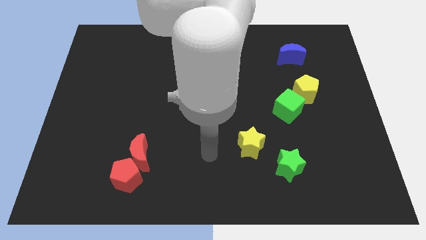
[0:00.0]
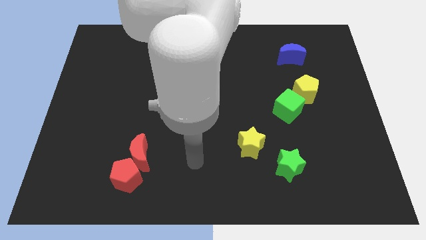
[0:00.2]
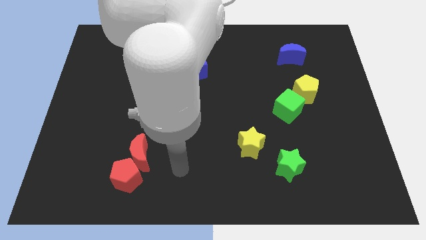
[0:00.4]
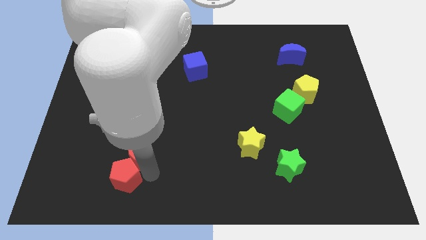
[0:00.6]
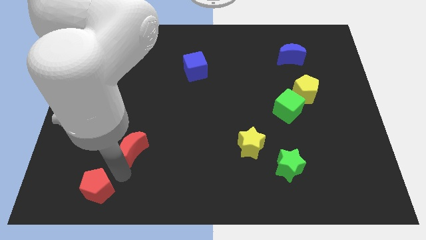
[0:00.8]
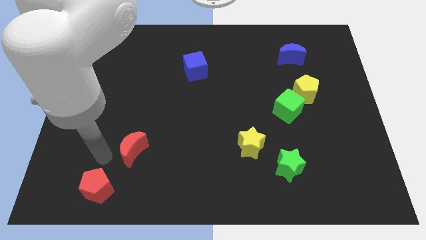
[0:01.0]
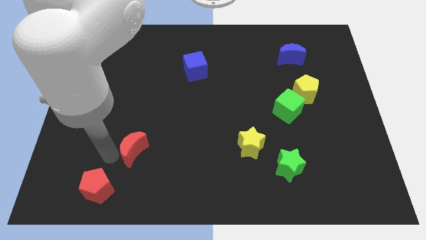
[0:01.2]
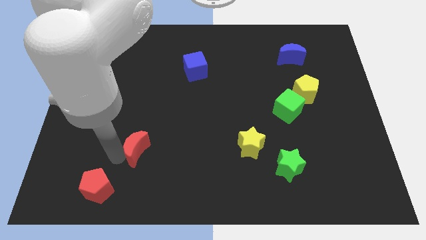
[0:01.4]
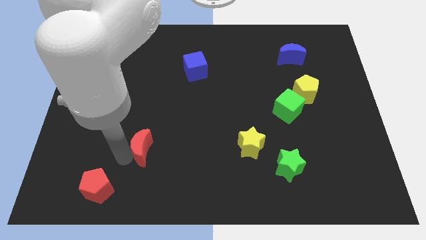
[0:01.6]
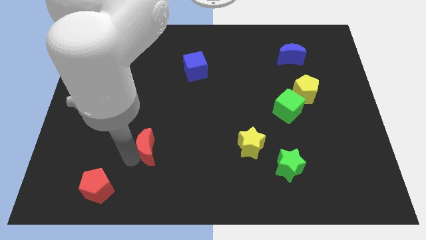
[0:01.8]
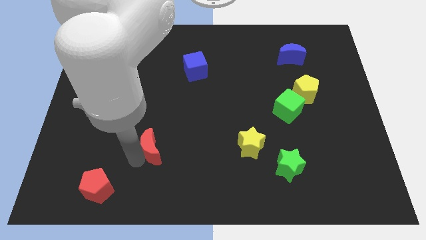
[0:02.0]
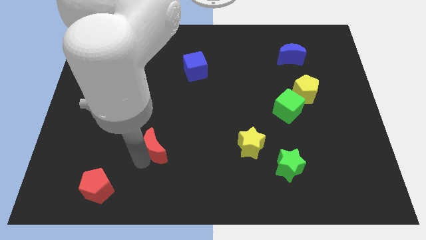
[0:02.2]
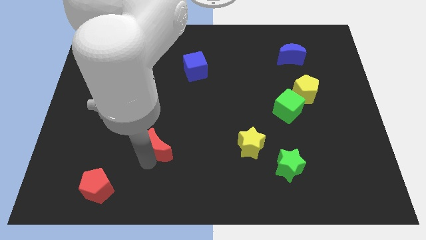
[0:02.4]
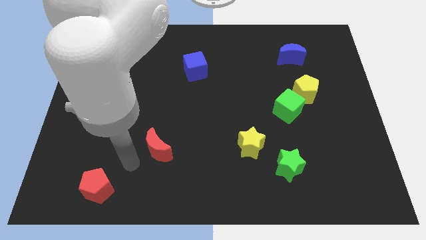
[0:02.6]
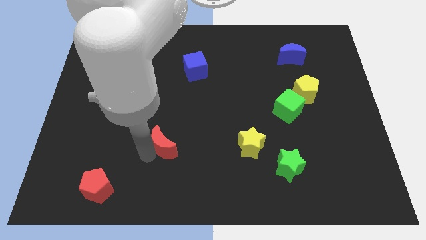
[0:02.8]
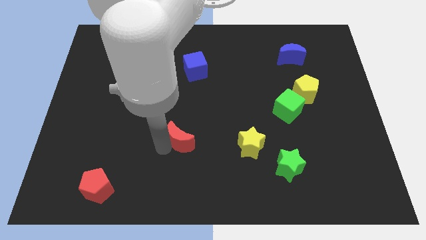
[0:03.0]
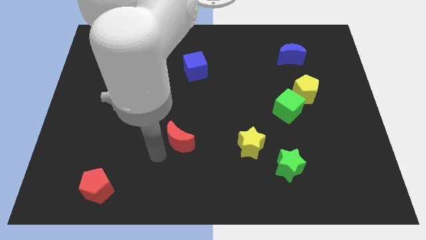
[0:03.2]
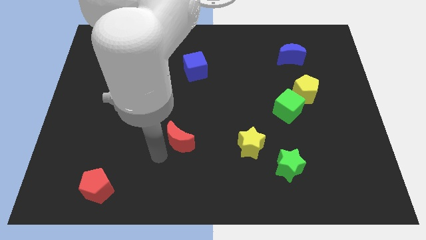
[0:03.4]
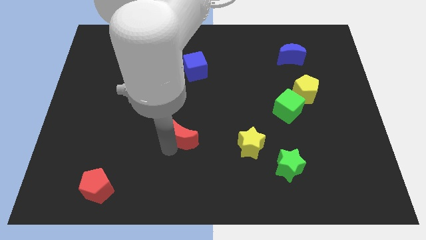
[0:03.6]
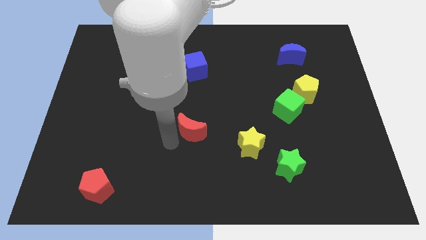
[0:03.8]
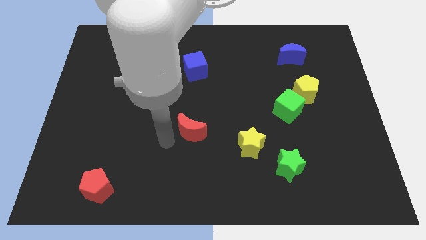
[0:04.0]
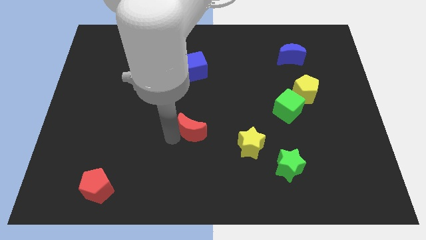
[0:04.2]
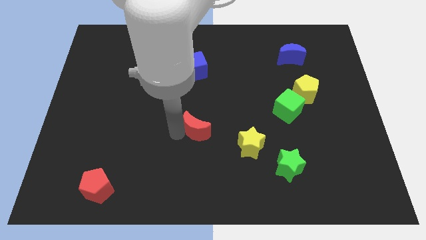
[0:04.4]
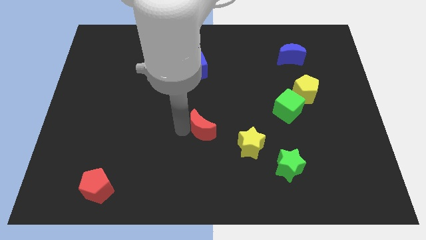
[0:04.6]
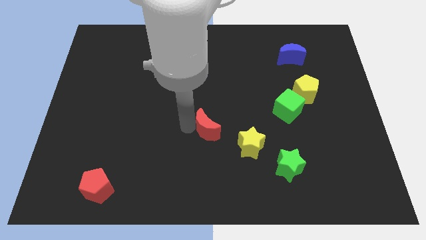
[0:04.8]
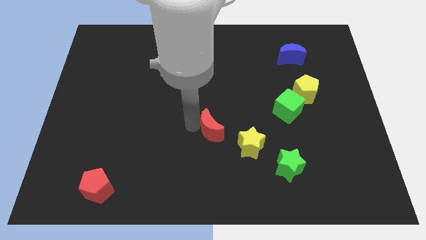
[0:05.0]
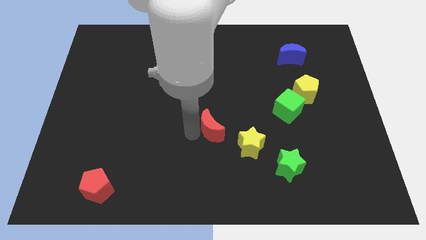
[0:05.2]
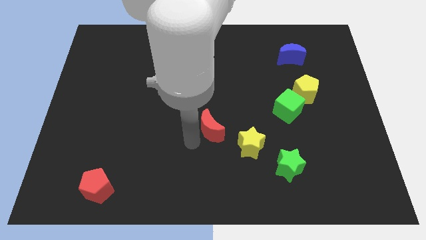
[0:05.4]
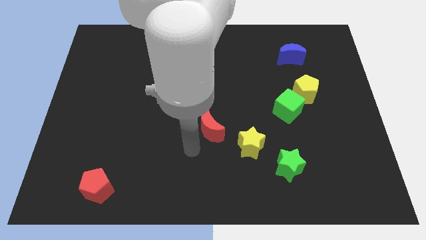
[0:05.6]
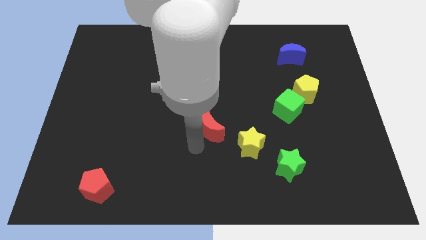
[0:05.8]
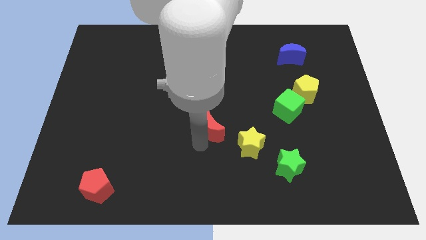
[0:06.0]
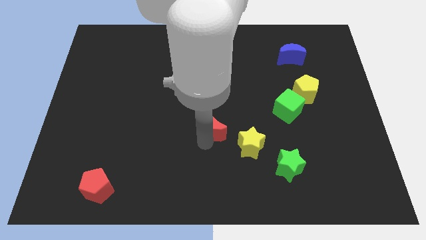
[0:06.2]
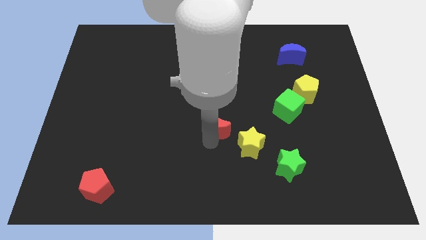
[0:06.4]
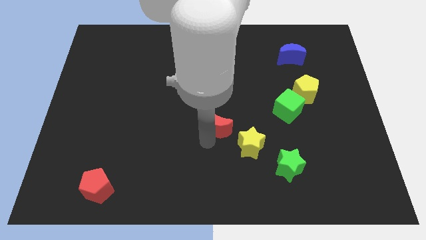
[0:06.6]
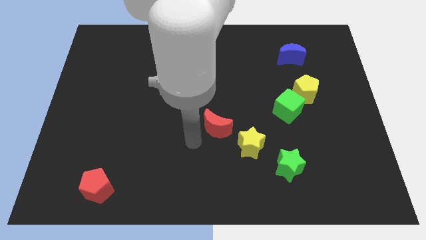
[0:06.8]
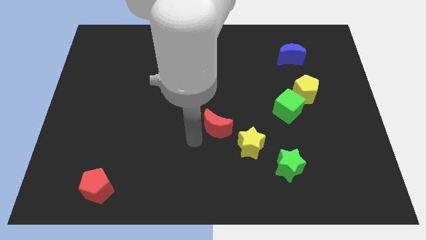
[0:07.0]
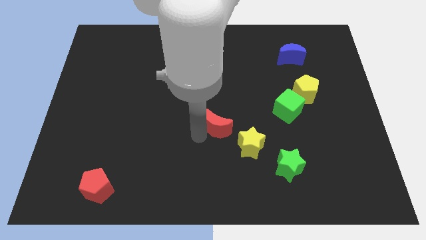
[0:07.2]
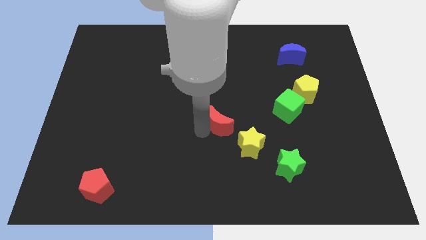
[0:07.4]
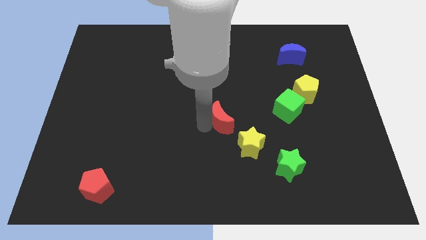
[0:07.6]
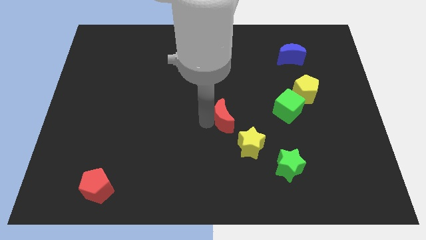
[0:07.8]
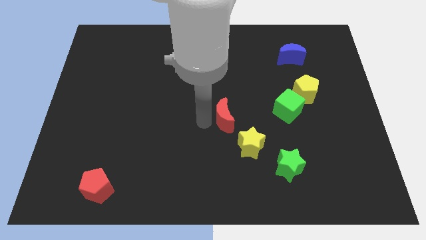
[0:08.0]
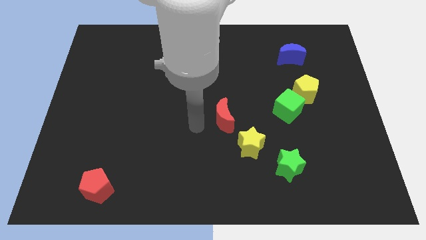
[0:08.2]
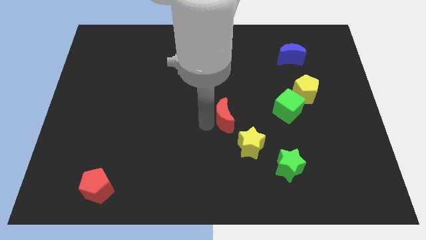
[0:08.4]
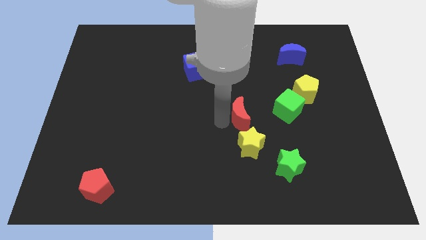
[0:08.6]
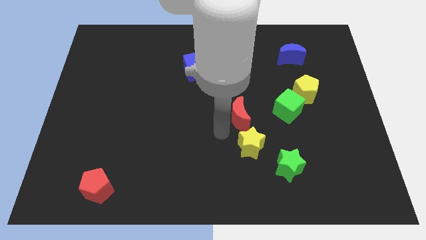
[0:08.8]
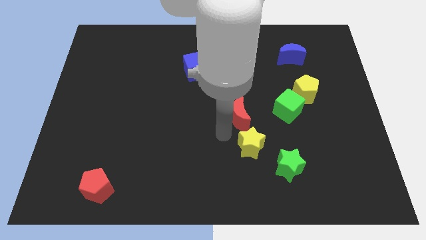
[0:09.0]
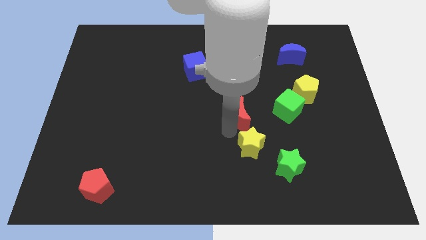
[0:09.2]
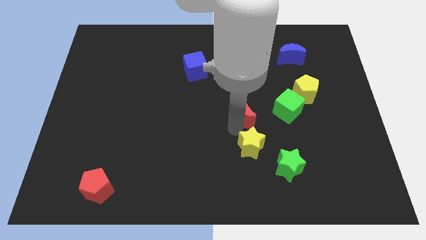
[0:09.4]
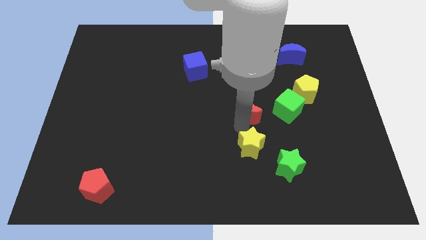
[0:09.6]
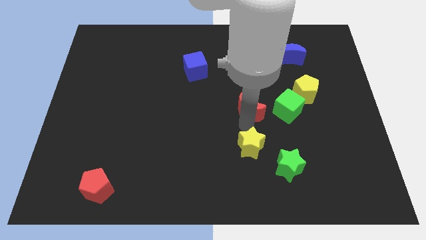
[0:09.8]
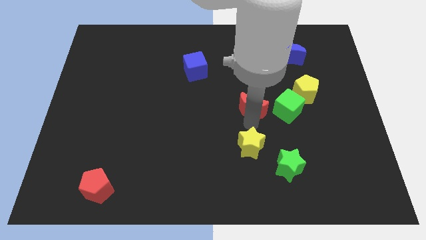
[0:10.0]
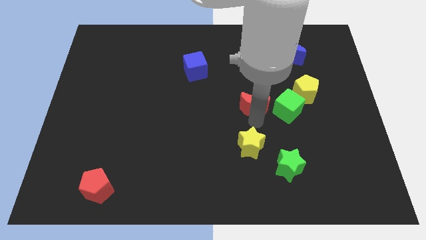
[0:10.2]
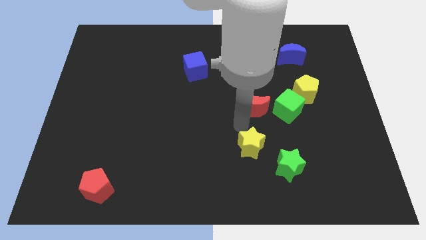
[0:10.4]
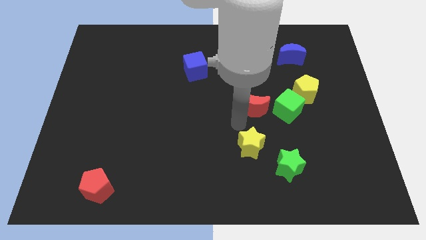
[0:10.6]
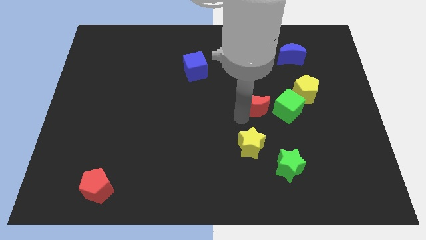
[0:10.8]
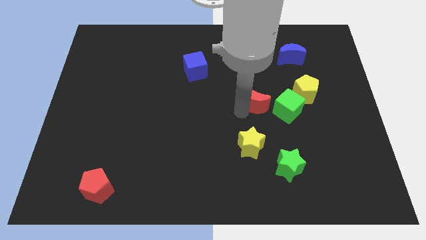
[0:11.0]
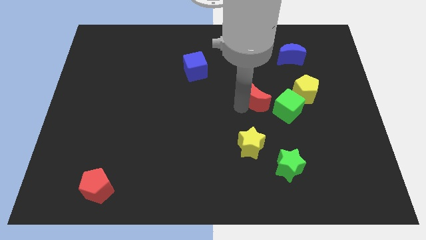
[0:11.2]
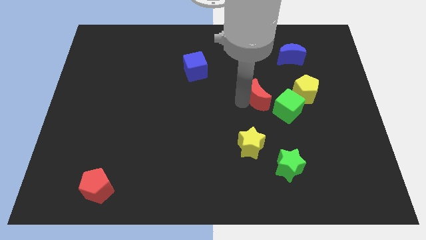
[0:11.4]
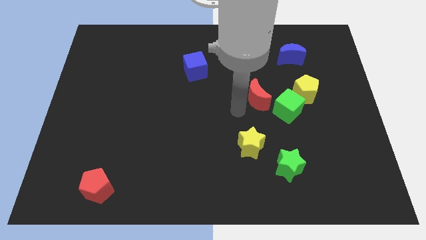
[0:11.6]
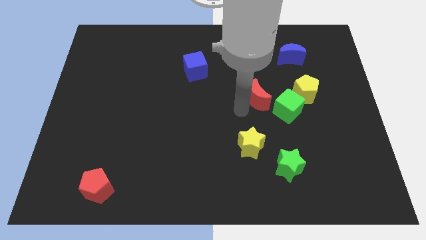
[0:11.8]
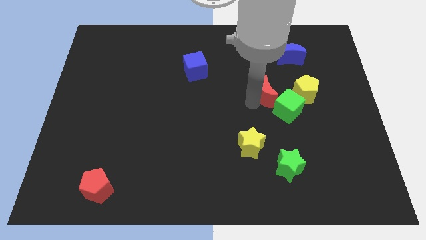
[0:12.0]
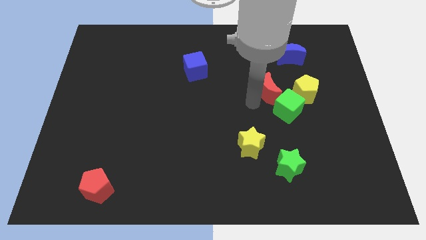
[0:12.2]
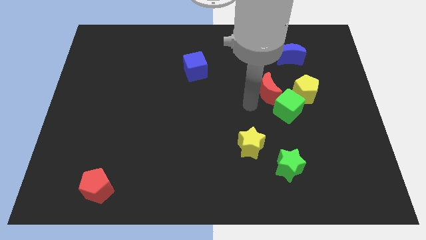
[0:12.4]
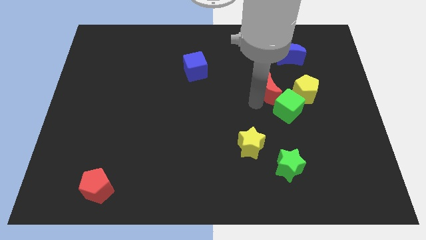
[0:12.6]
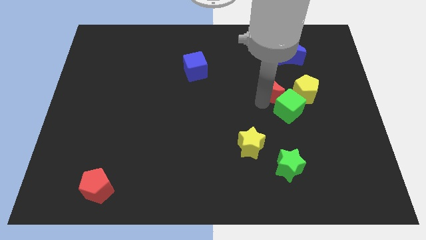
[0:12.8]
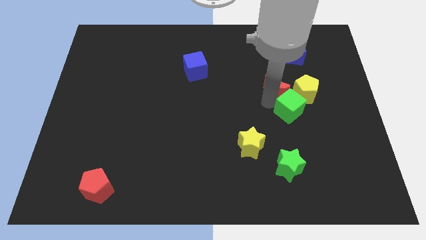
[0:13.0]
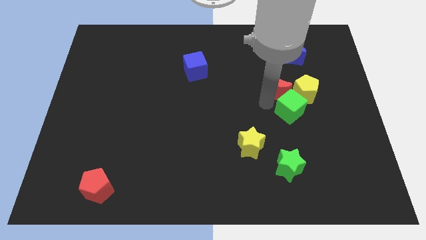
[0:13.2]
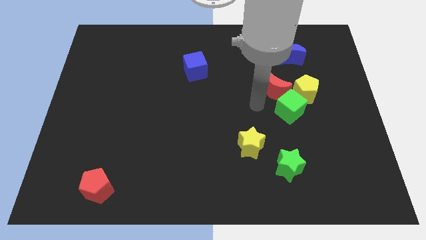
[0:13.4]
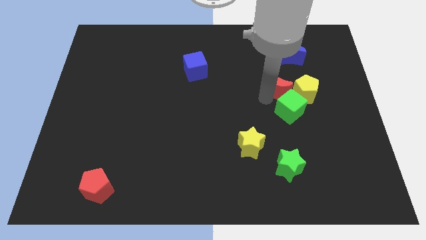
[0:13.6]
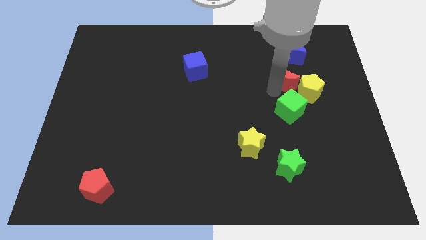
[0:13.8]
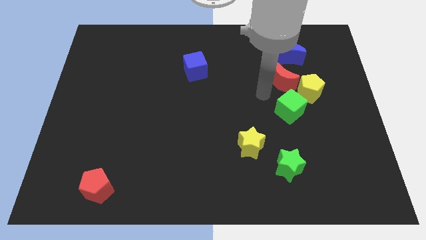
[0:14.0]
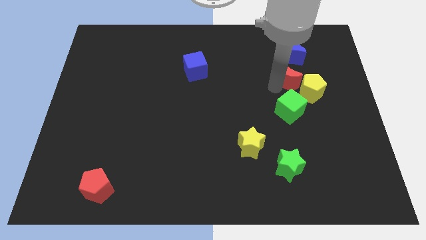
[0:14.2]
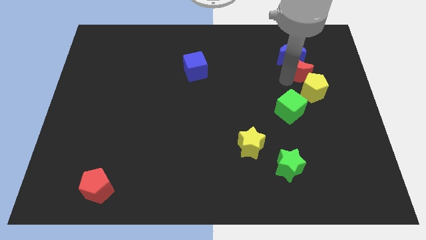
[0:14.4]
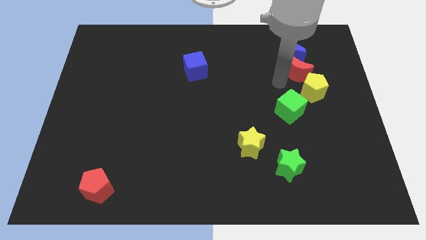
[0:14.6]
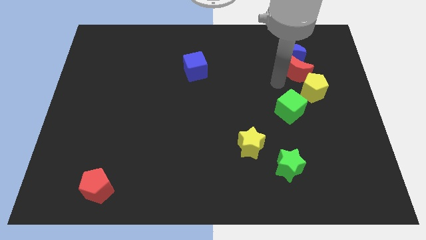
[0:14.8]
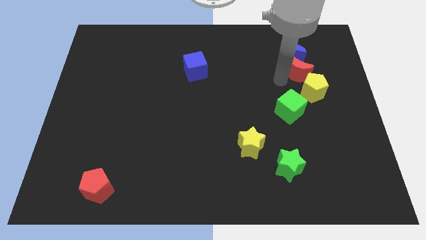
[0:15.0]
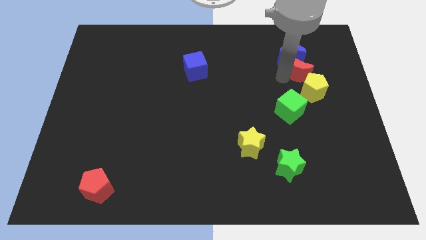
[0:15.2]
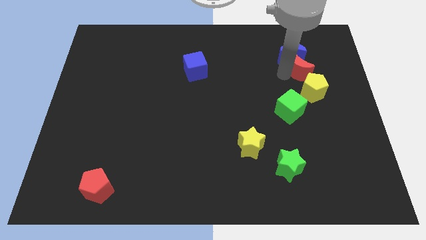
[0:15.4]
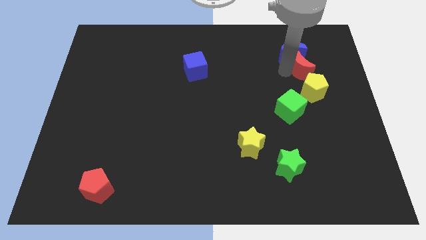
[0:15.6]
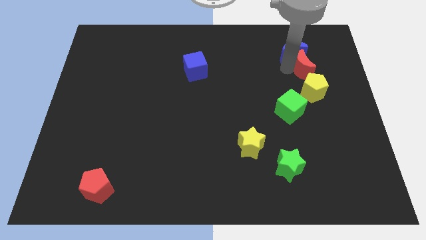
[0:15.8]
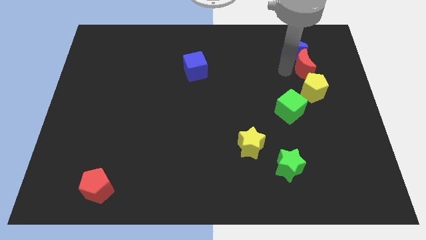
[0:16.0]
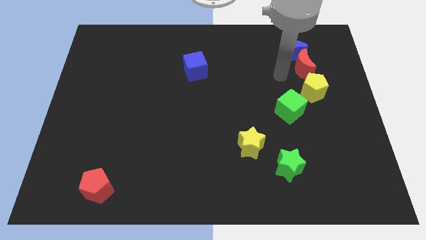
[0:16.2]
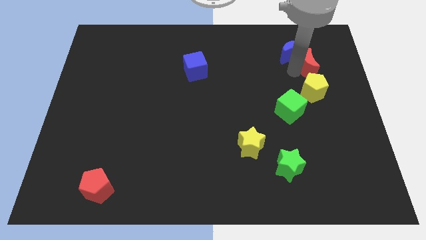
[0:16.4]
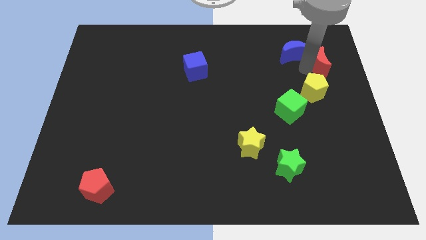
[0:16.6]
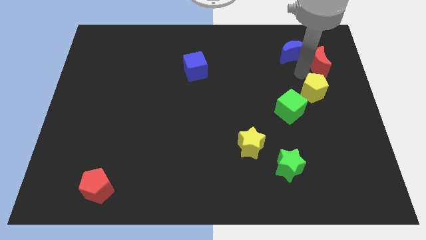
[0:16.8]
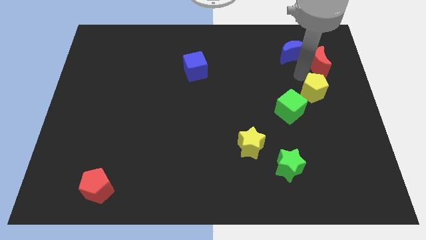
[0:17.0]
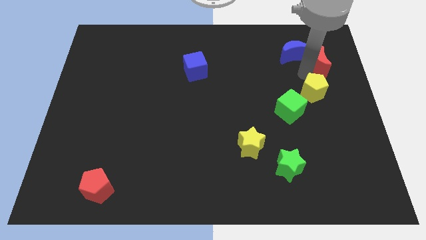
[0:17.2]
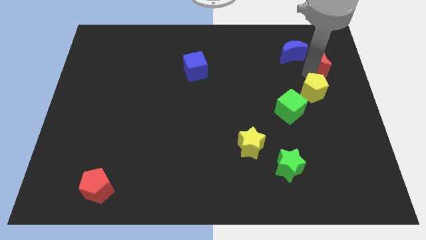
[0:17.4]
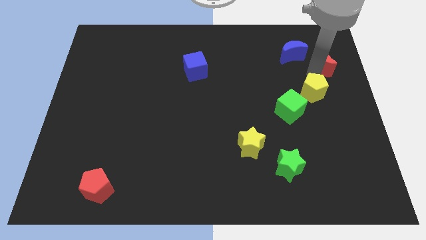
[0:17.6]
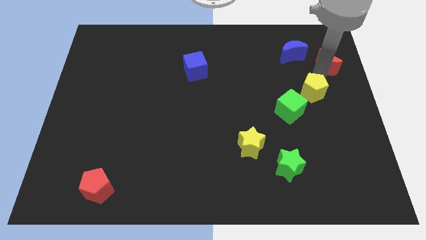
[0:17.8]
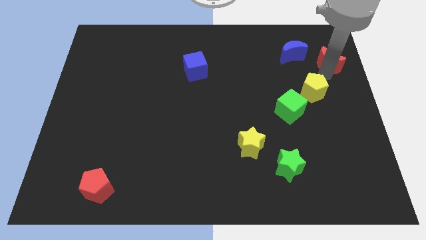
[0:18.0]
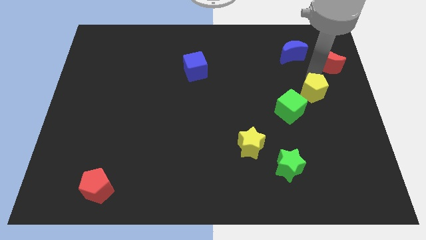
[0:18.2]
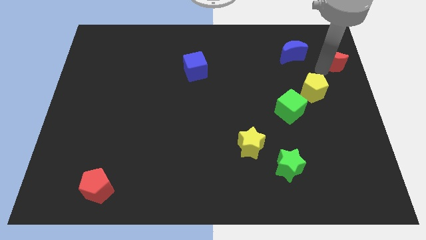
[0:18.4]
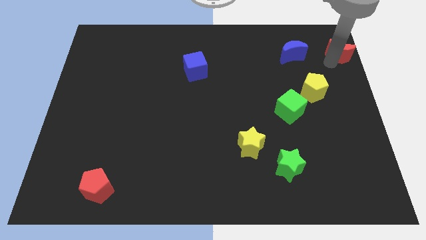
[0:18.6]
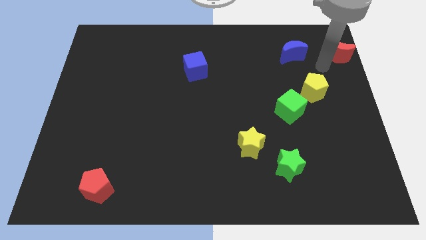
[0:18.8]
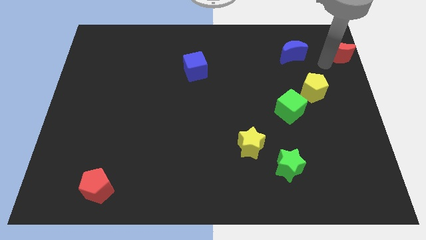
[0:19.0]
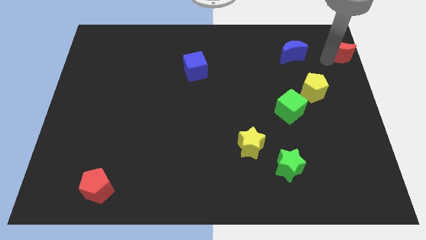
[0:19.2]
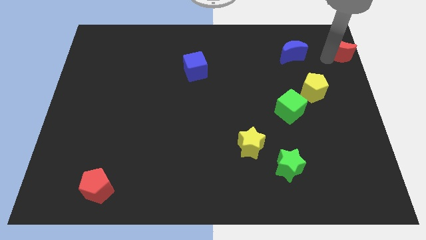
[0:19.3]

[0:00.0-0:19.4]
put the red moon to the top right
